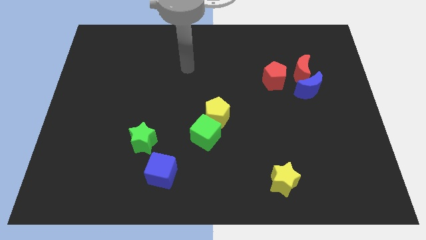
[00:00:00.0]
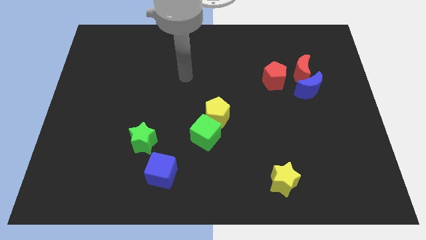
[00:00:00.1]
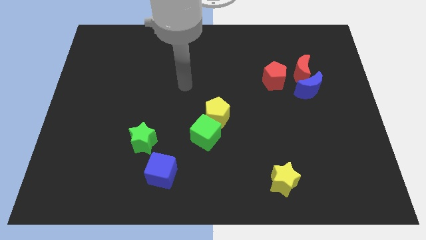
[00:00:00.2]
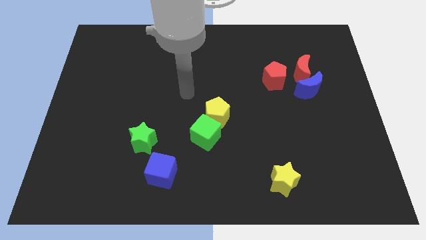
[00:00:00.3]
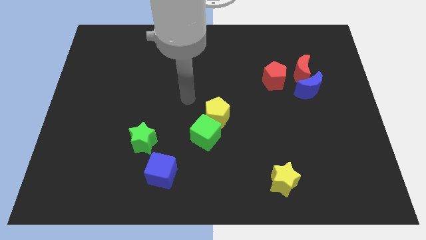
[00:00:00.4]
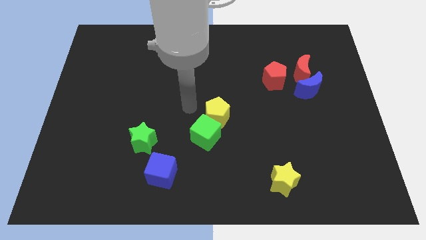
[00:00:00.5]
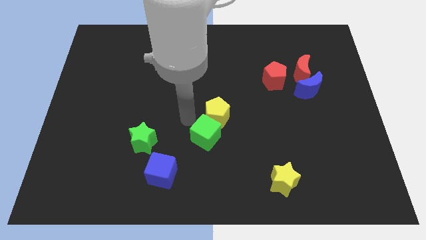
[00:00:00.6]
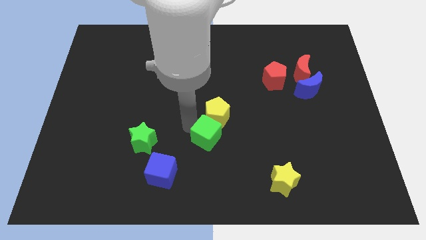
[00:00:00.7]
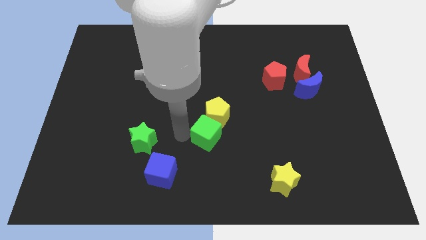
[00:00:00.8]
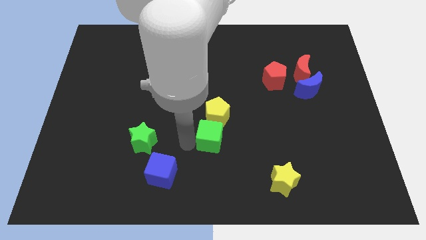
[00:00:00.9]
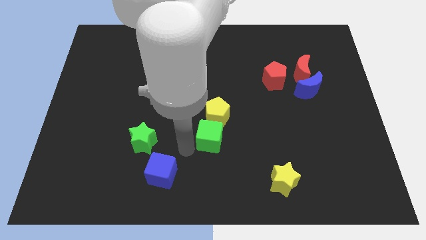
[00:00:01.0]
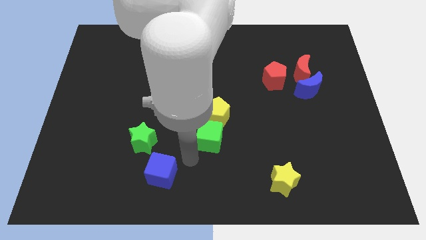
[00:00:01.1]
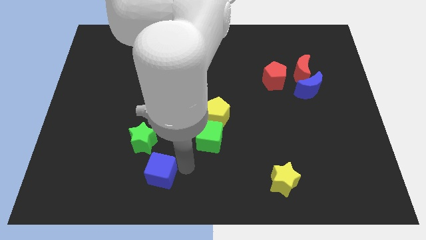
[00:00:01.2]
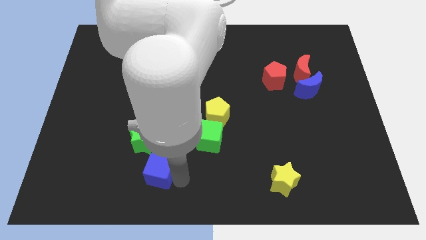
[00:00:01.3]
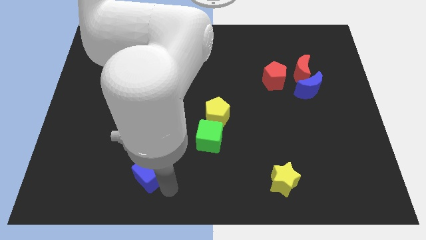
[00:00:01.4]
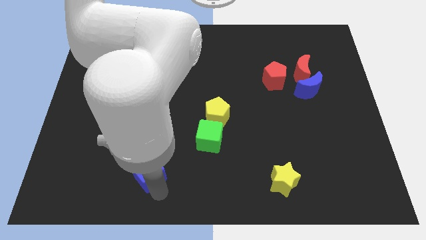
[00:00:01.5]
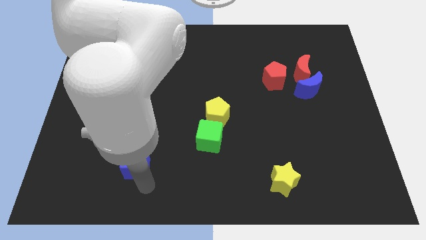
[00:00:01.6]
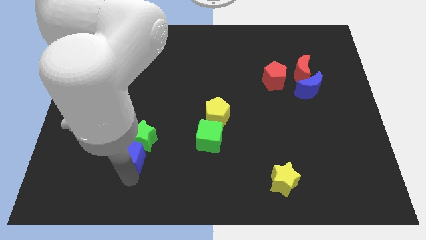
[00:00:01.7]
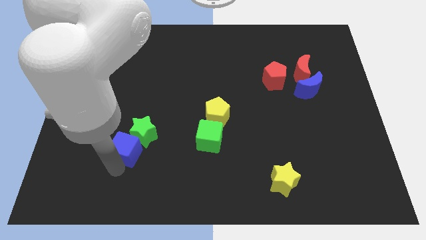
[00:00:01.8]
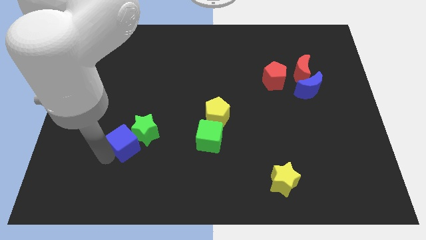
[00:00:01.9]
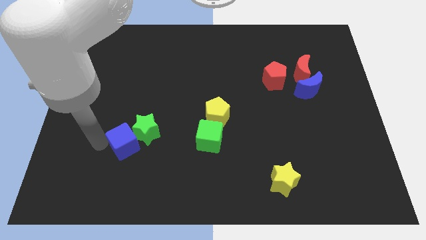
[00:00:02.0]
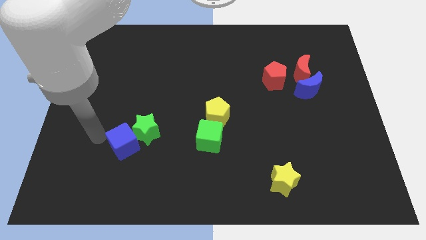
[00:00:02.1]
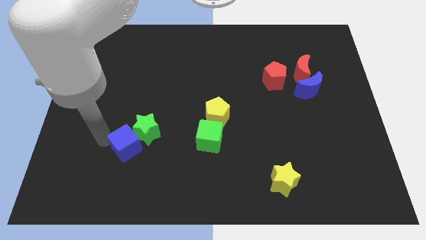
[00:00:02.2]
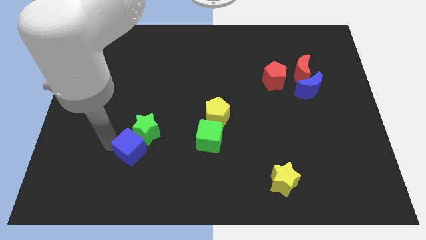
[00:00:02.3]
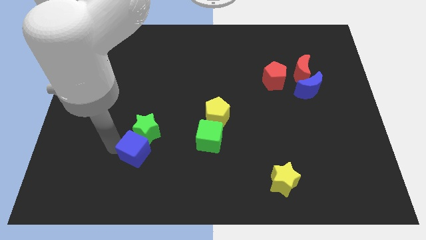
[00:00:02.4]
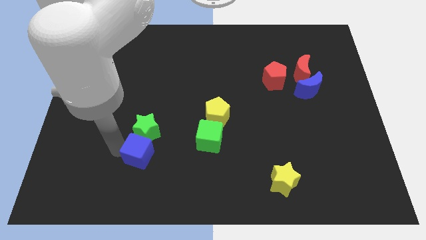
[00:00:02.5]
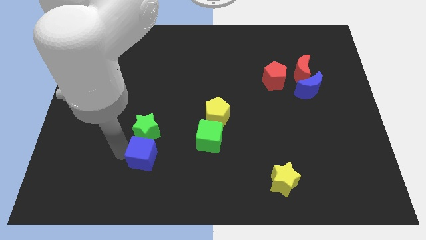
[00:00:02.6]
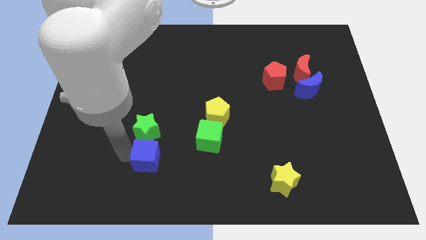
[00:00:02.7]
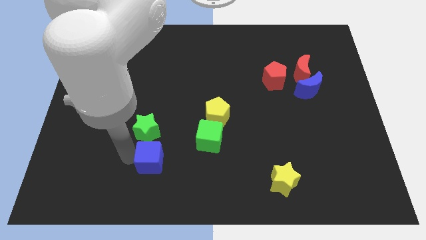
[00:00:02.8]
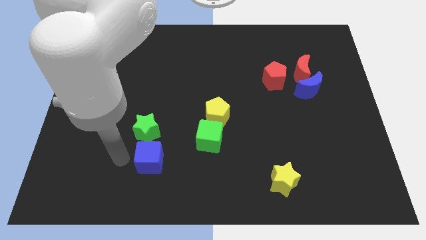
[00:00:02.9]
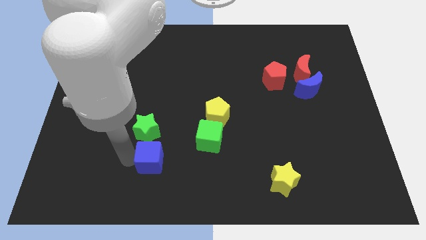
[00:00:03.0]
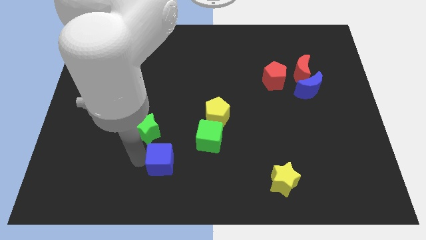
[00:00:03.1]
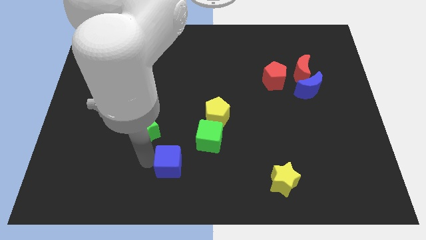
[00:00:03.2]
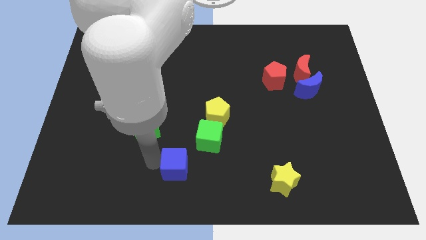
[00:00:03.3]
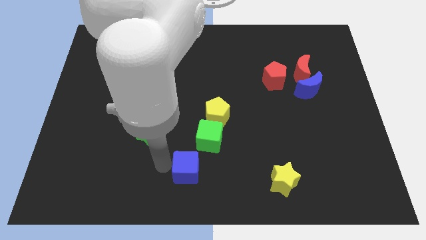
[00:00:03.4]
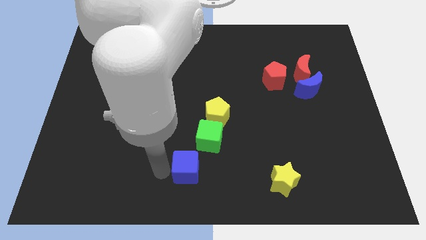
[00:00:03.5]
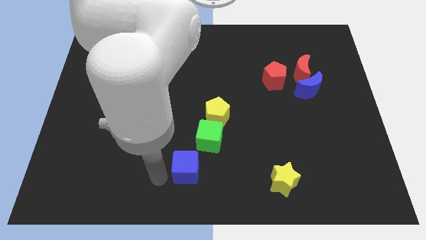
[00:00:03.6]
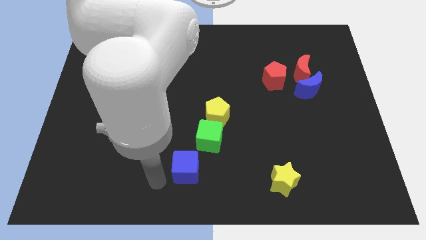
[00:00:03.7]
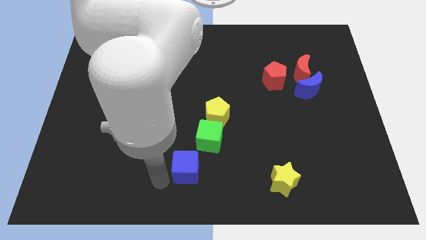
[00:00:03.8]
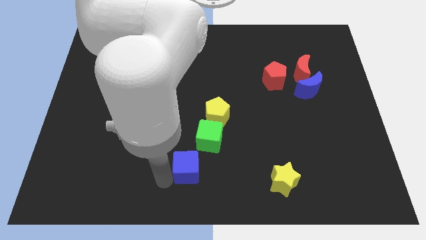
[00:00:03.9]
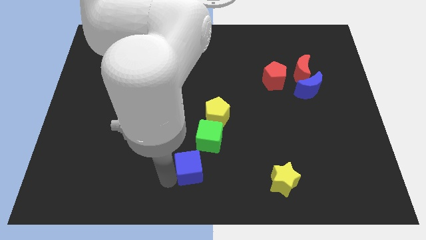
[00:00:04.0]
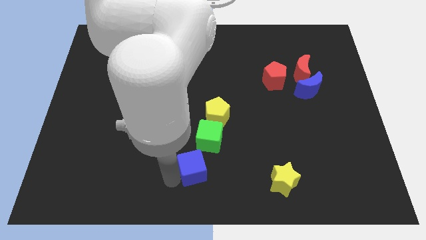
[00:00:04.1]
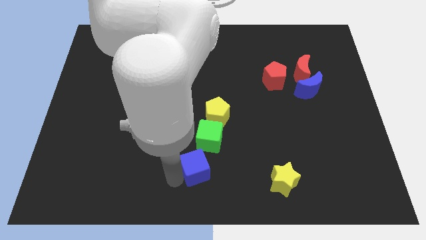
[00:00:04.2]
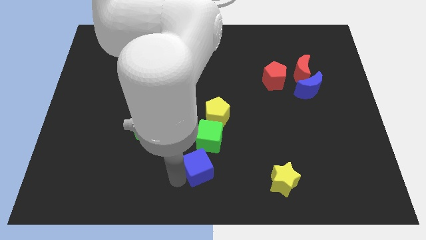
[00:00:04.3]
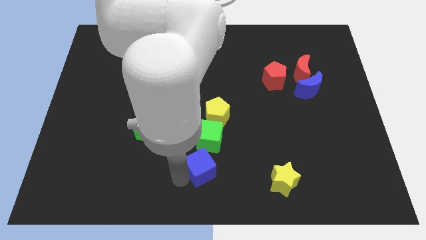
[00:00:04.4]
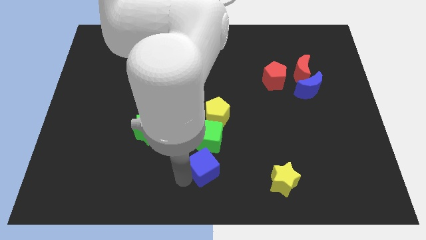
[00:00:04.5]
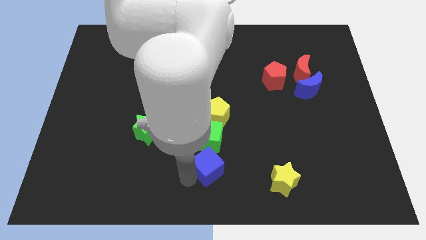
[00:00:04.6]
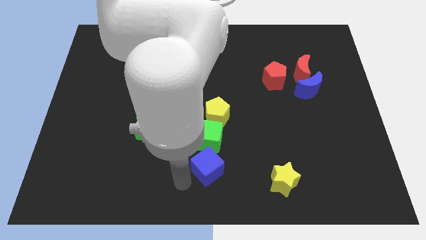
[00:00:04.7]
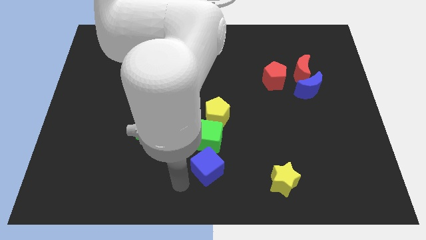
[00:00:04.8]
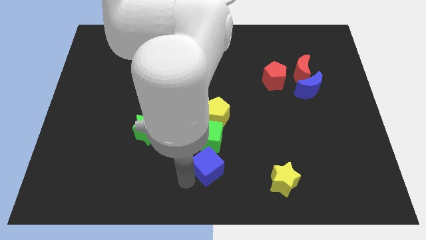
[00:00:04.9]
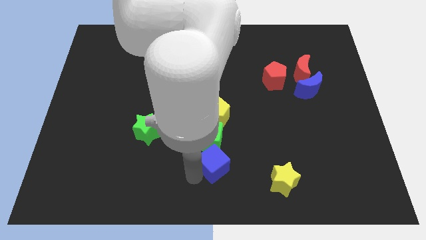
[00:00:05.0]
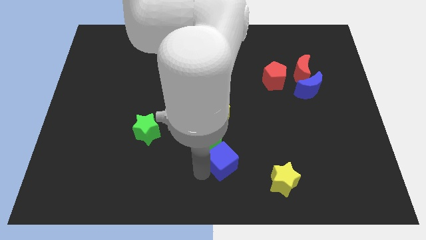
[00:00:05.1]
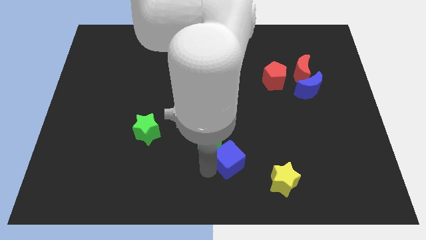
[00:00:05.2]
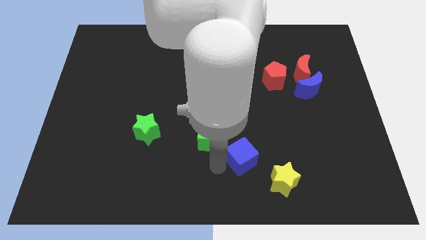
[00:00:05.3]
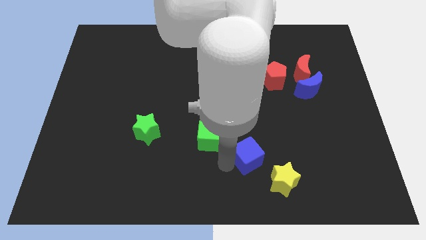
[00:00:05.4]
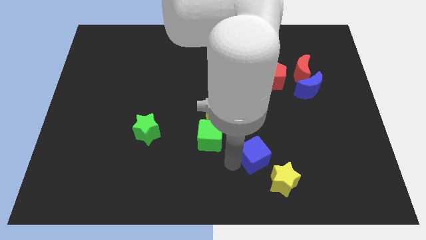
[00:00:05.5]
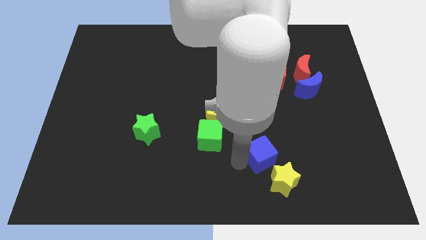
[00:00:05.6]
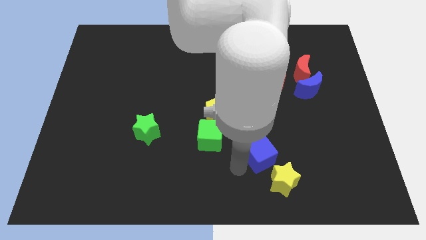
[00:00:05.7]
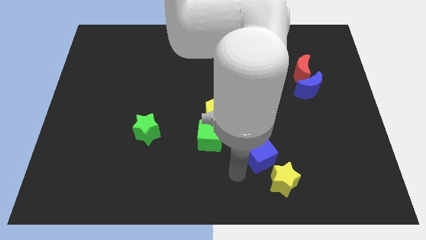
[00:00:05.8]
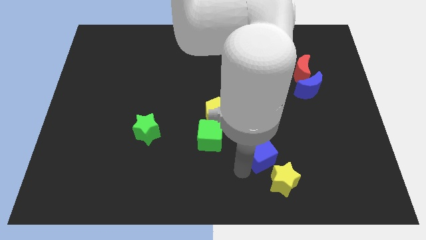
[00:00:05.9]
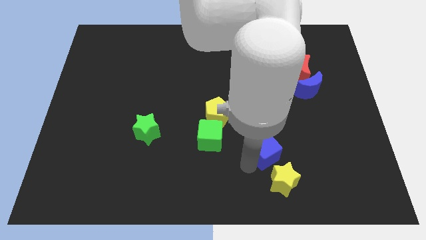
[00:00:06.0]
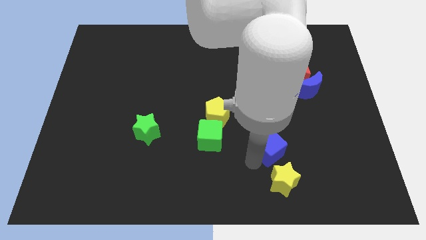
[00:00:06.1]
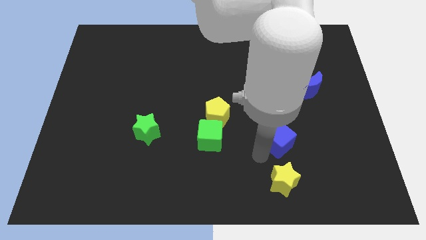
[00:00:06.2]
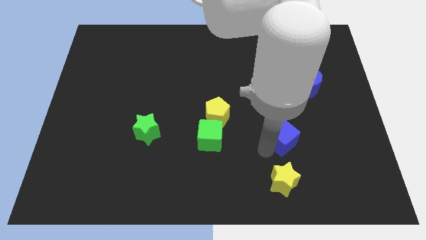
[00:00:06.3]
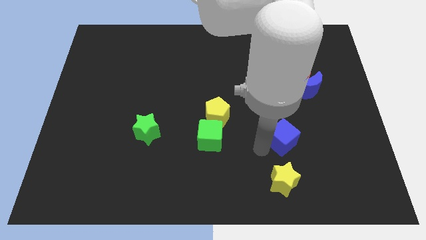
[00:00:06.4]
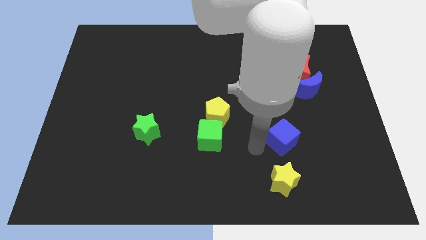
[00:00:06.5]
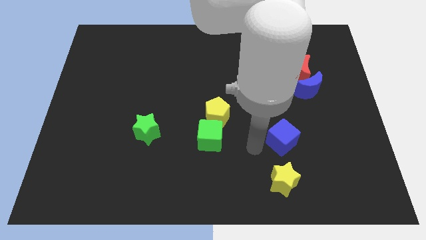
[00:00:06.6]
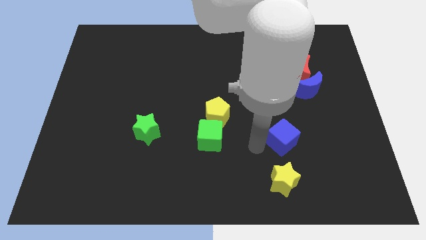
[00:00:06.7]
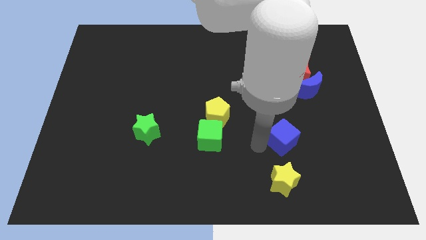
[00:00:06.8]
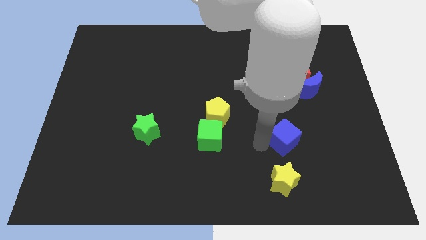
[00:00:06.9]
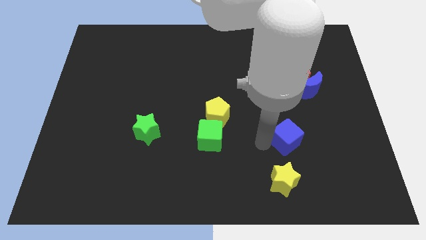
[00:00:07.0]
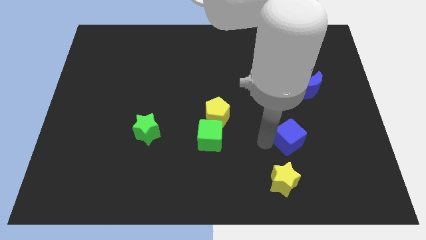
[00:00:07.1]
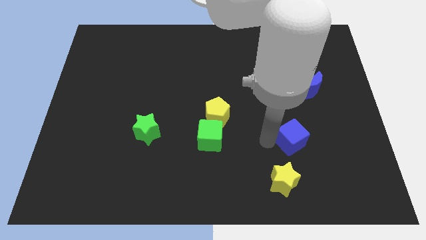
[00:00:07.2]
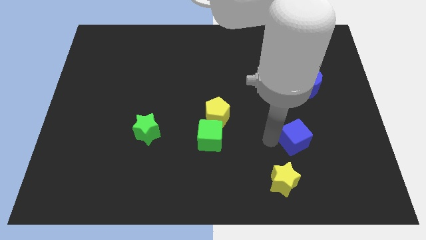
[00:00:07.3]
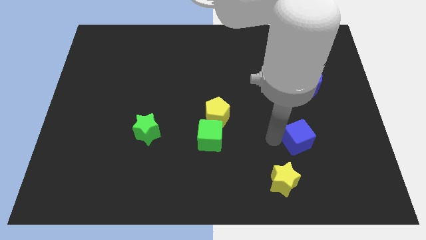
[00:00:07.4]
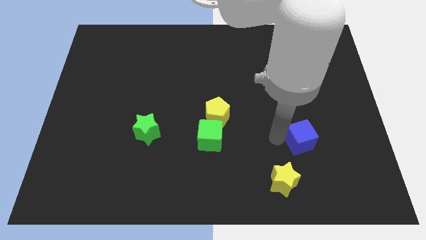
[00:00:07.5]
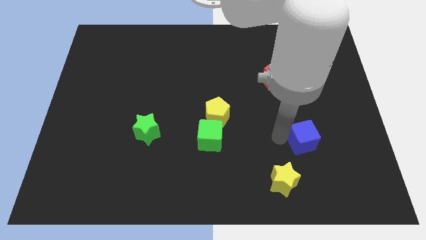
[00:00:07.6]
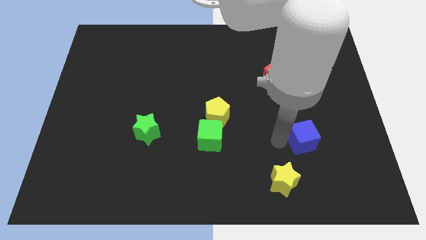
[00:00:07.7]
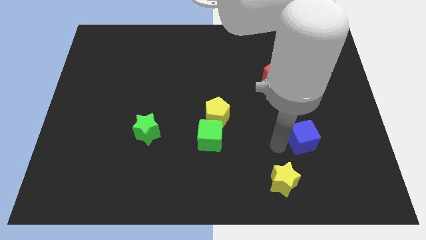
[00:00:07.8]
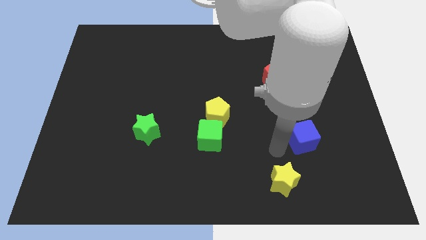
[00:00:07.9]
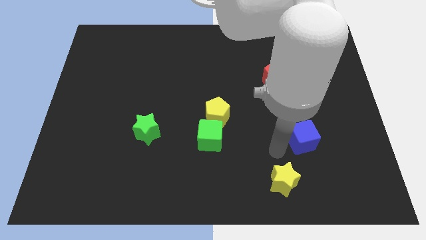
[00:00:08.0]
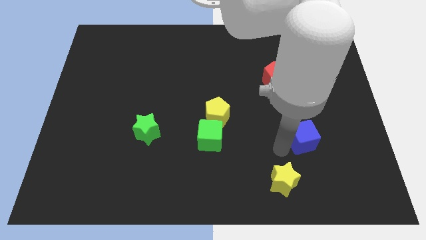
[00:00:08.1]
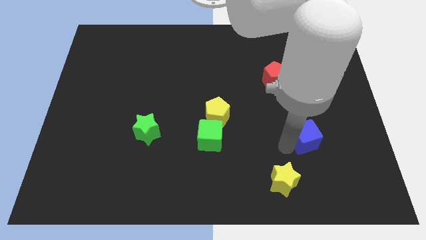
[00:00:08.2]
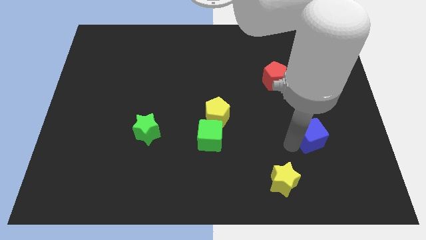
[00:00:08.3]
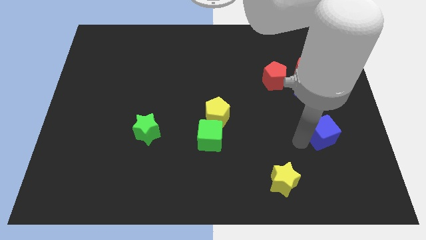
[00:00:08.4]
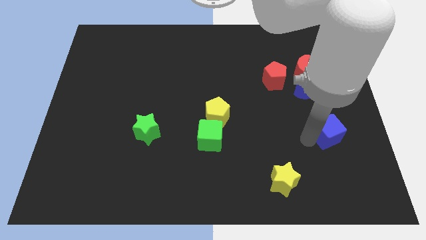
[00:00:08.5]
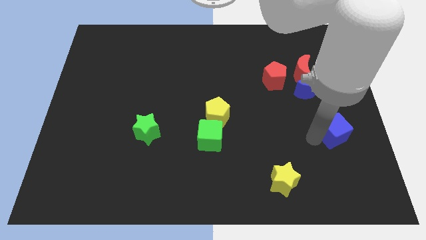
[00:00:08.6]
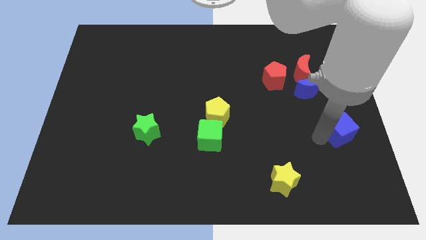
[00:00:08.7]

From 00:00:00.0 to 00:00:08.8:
slide the blue cube to the center right
